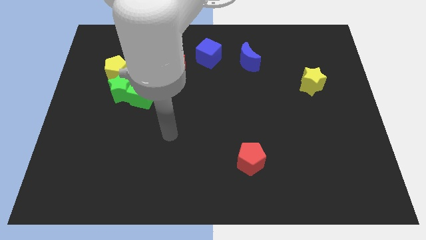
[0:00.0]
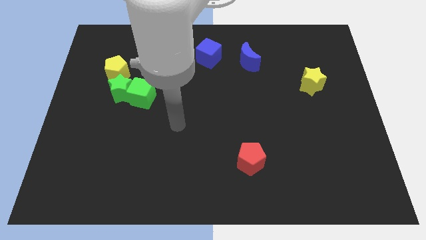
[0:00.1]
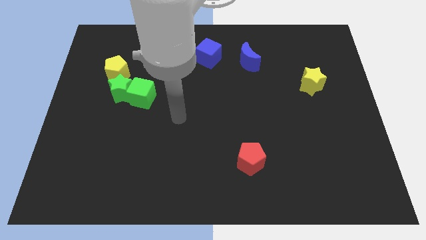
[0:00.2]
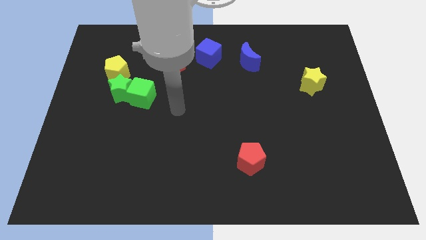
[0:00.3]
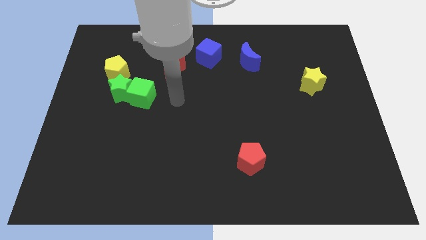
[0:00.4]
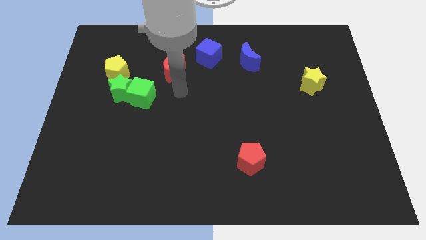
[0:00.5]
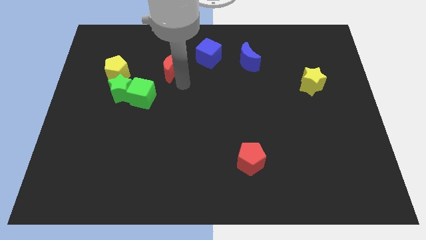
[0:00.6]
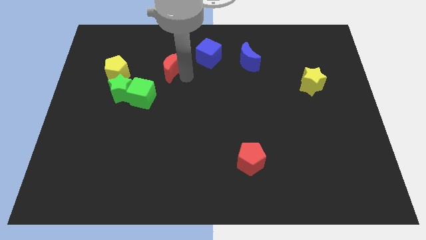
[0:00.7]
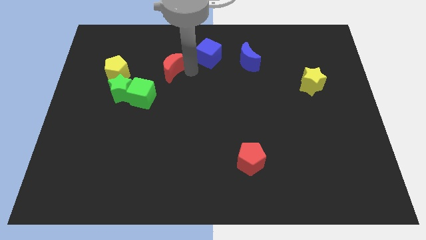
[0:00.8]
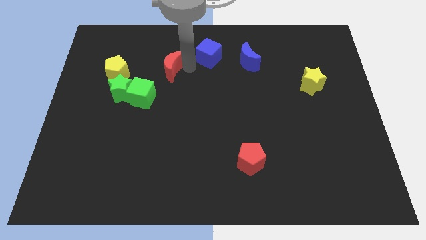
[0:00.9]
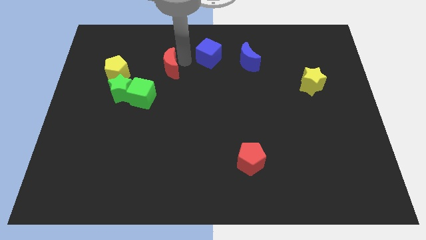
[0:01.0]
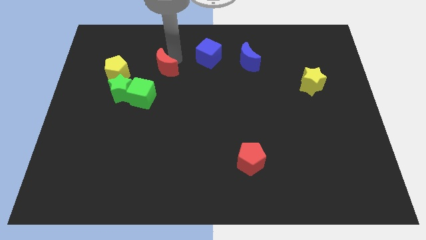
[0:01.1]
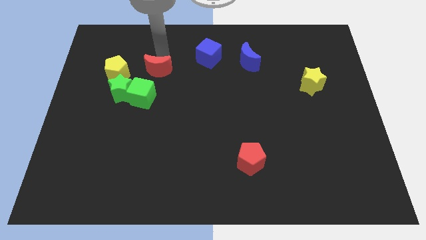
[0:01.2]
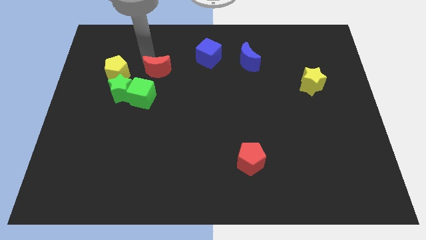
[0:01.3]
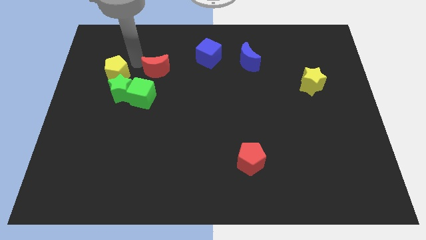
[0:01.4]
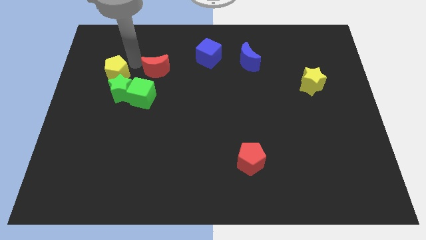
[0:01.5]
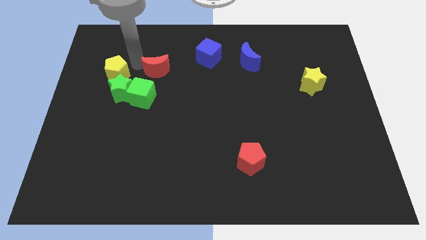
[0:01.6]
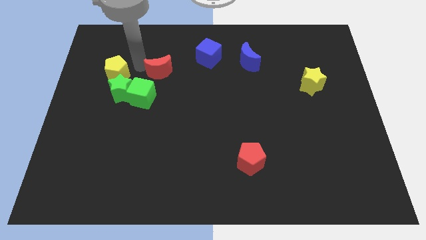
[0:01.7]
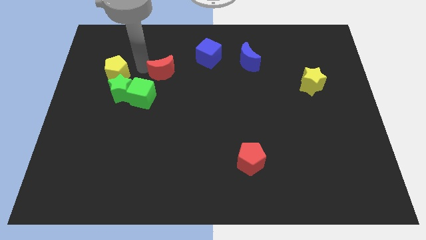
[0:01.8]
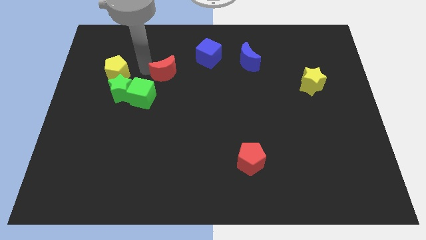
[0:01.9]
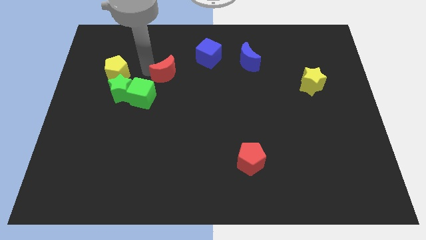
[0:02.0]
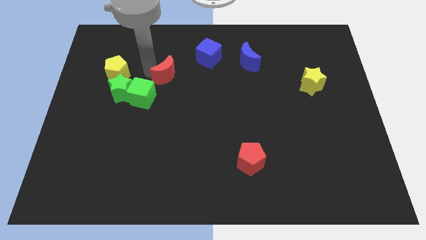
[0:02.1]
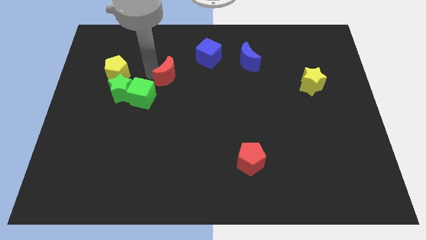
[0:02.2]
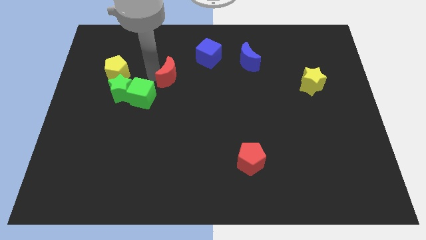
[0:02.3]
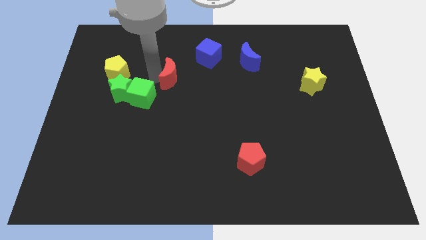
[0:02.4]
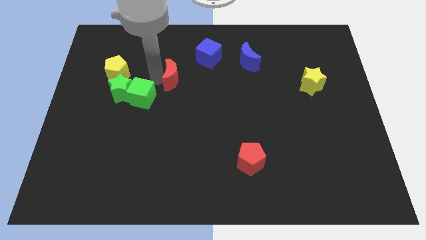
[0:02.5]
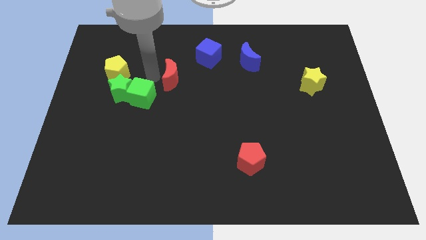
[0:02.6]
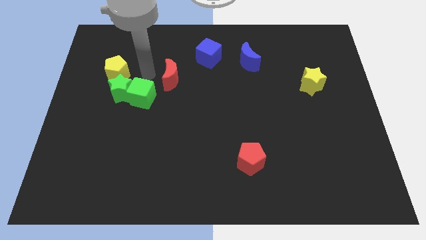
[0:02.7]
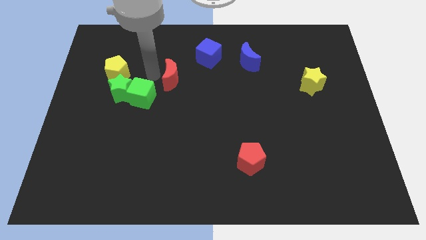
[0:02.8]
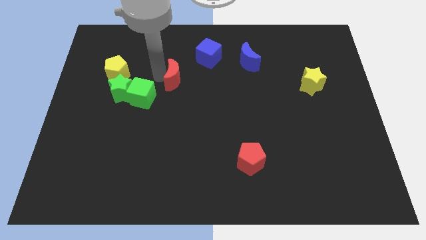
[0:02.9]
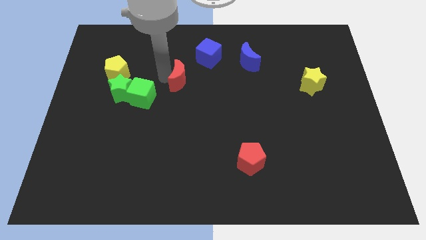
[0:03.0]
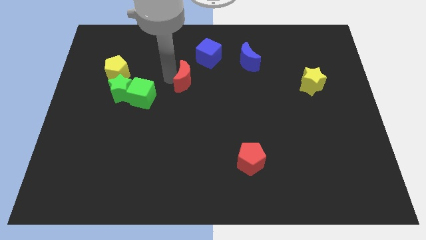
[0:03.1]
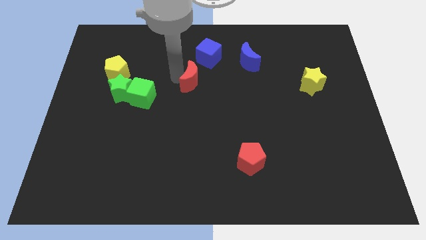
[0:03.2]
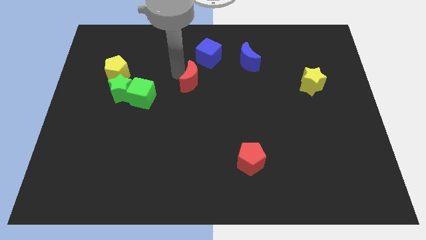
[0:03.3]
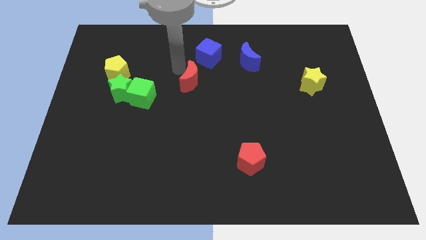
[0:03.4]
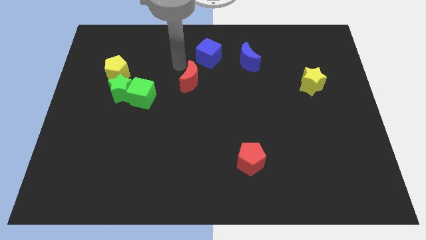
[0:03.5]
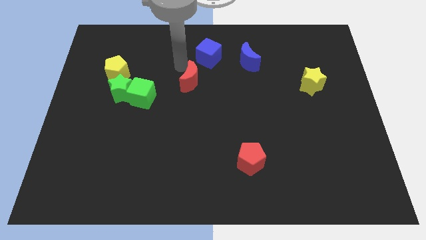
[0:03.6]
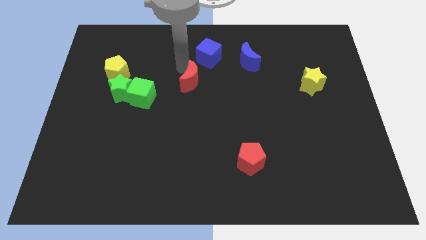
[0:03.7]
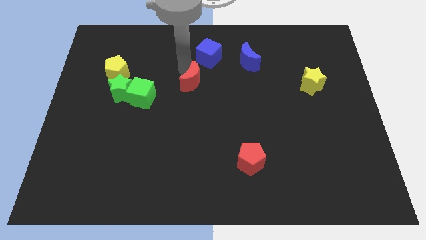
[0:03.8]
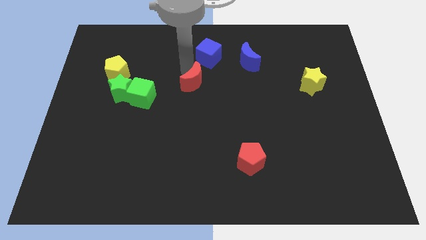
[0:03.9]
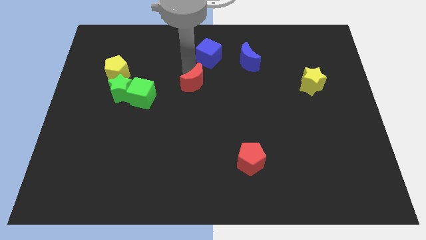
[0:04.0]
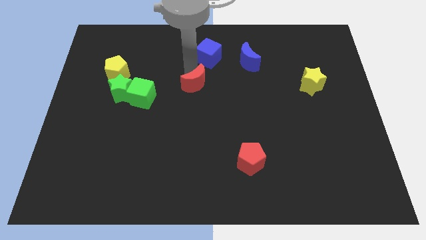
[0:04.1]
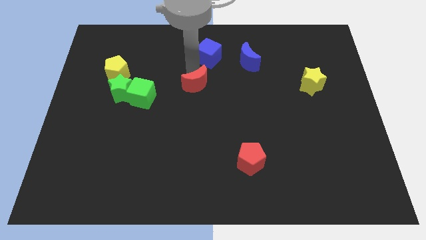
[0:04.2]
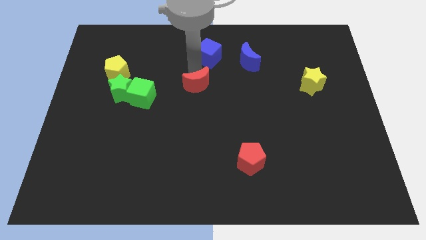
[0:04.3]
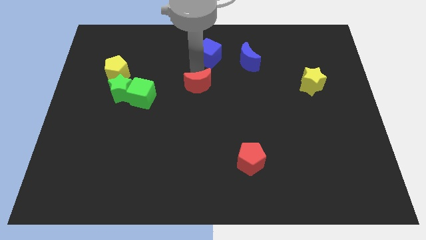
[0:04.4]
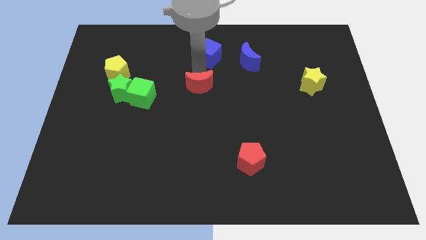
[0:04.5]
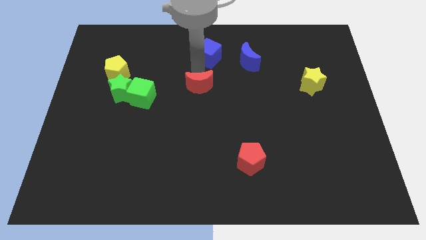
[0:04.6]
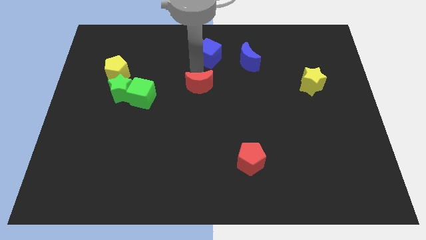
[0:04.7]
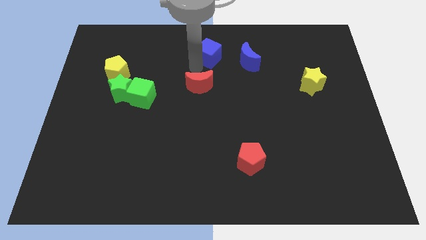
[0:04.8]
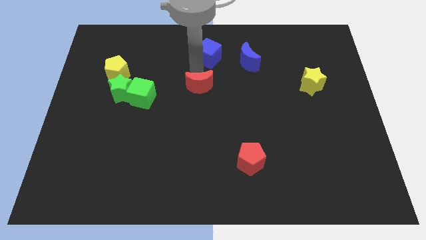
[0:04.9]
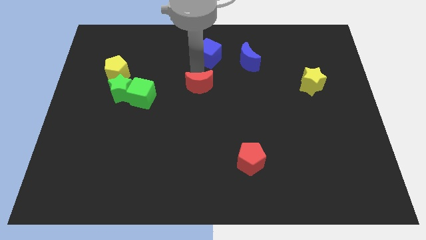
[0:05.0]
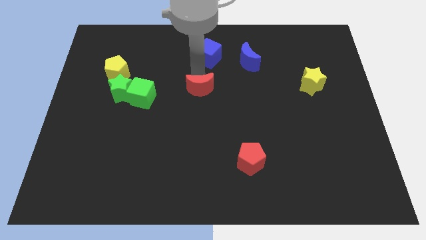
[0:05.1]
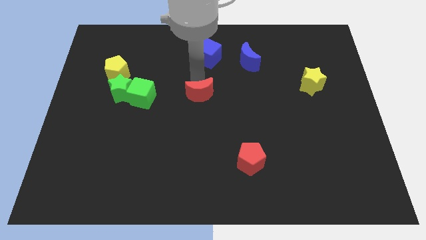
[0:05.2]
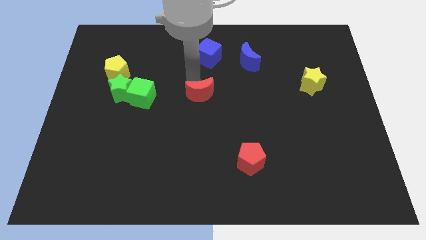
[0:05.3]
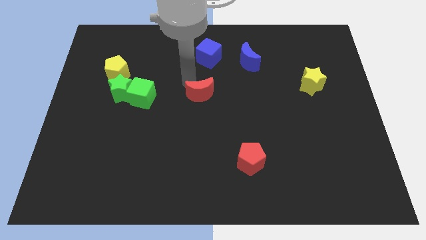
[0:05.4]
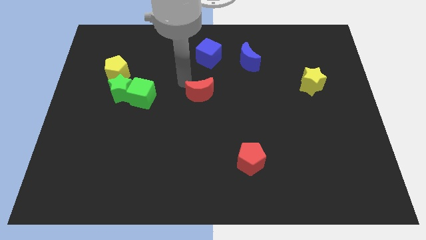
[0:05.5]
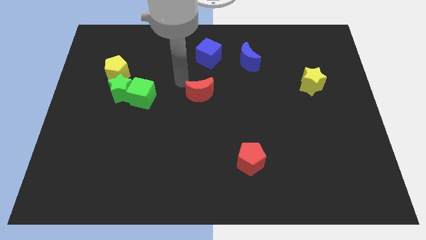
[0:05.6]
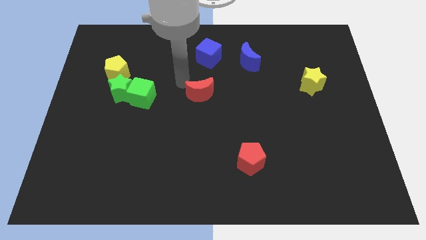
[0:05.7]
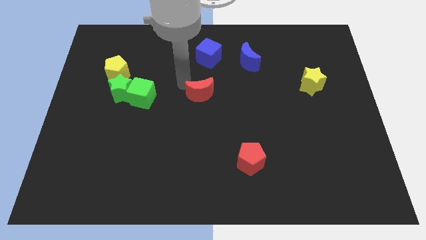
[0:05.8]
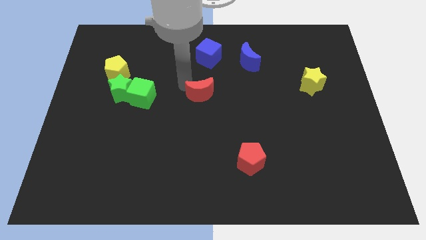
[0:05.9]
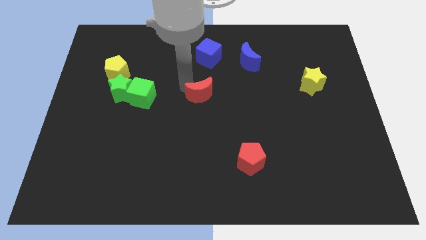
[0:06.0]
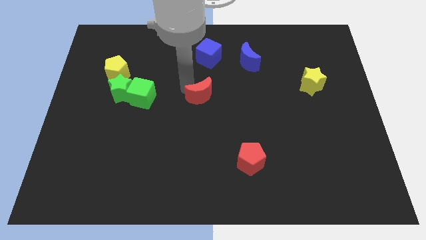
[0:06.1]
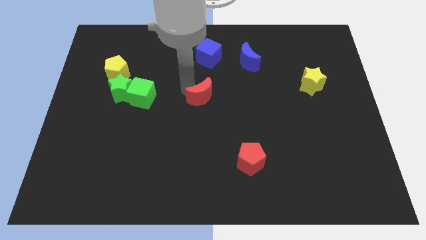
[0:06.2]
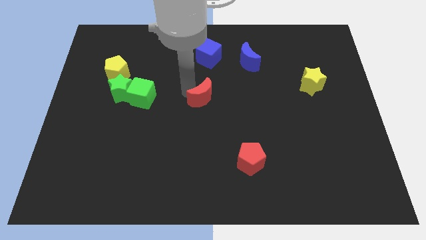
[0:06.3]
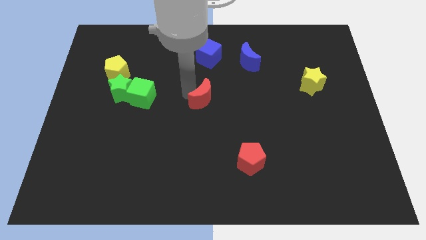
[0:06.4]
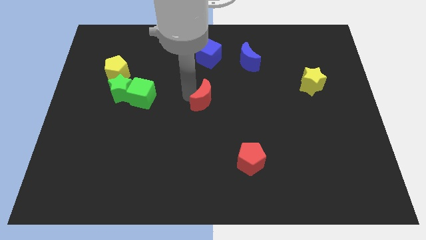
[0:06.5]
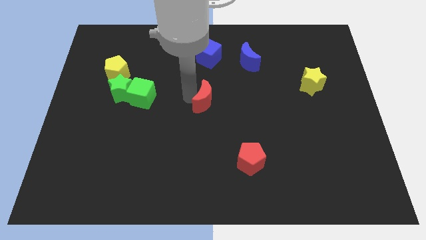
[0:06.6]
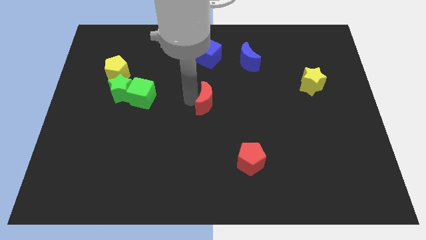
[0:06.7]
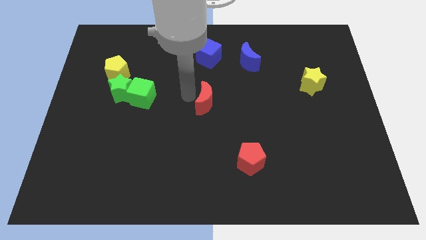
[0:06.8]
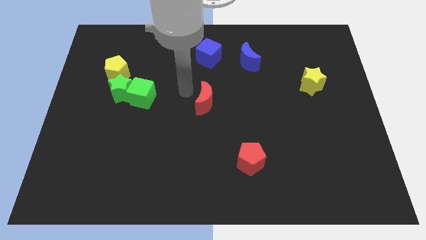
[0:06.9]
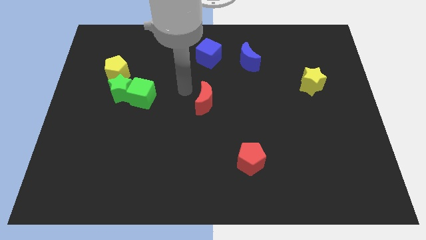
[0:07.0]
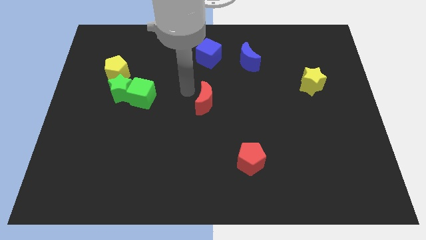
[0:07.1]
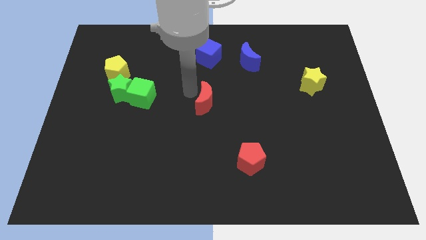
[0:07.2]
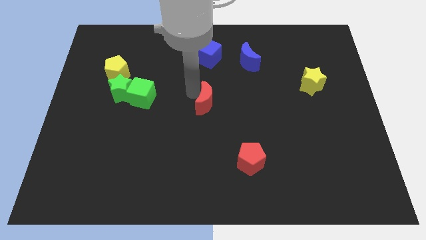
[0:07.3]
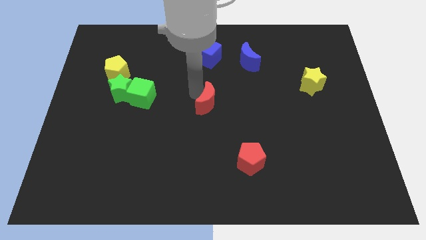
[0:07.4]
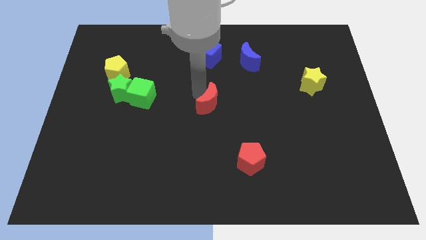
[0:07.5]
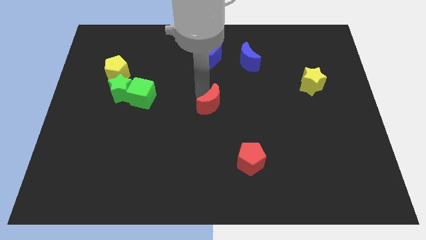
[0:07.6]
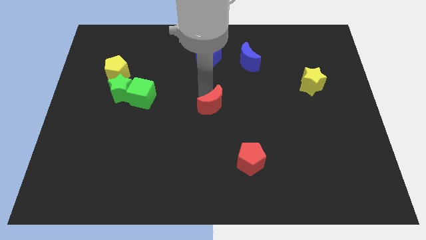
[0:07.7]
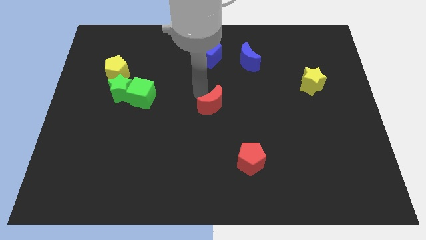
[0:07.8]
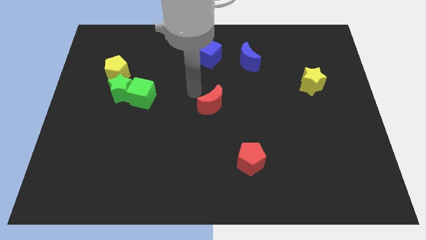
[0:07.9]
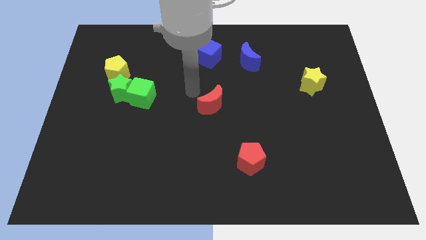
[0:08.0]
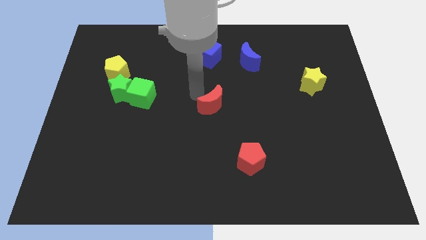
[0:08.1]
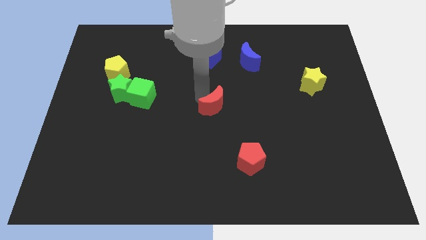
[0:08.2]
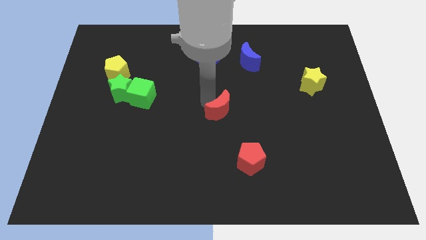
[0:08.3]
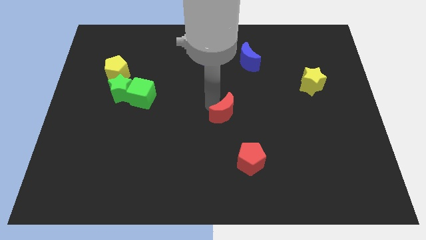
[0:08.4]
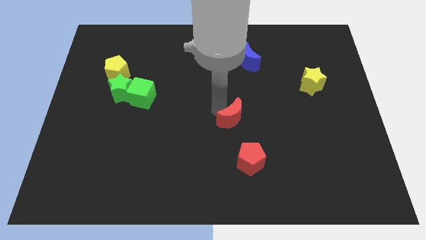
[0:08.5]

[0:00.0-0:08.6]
move the red moon diagonally down and right
